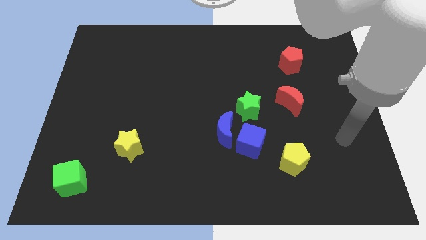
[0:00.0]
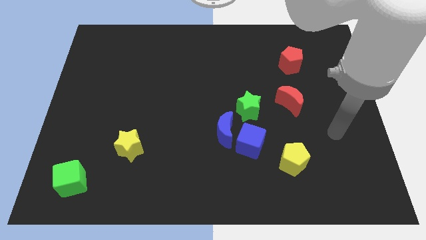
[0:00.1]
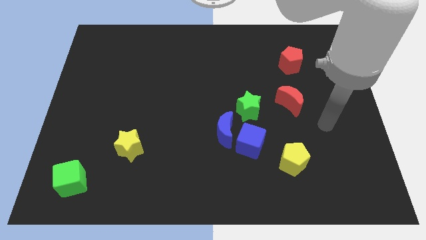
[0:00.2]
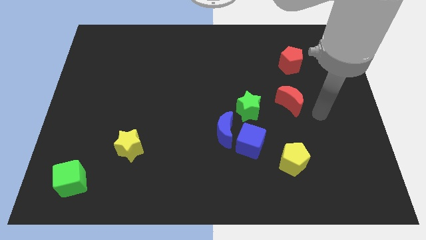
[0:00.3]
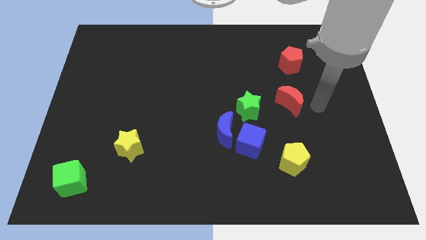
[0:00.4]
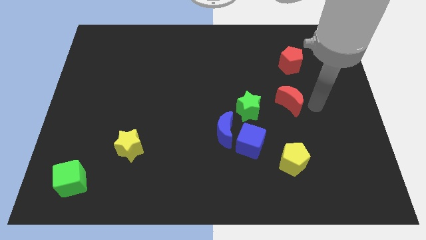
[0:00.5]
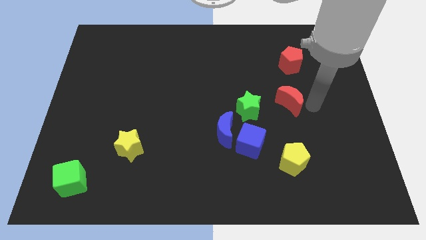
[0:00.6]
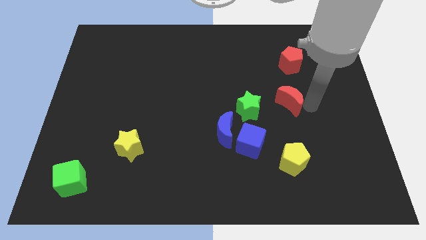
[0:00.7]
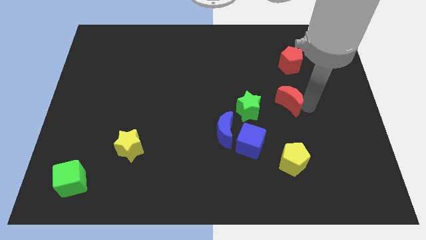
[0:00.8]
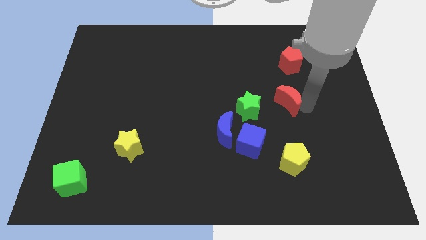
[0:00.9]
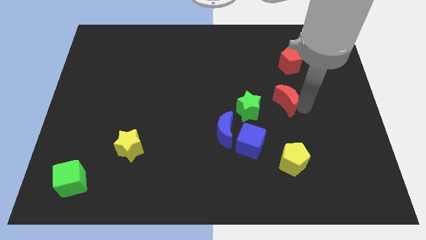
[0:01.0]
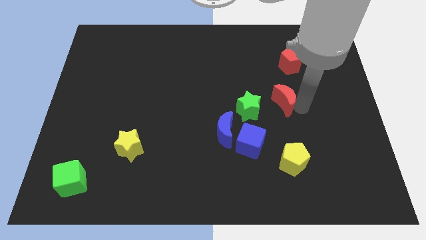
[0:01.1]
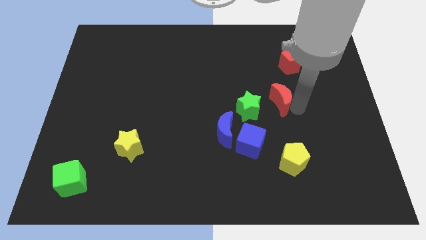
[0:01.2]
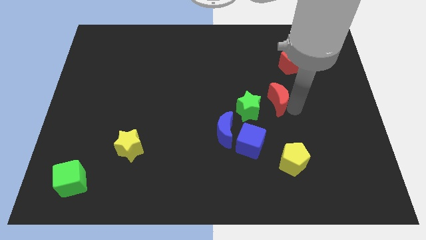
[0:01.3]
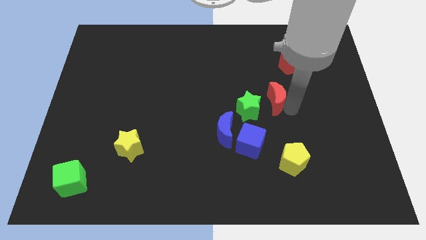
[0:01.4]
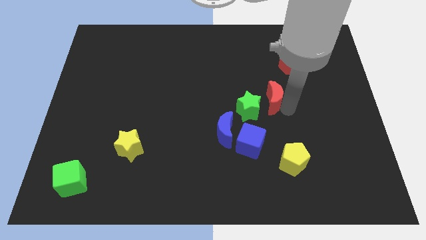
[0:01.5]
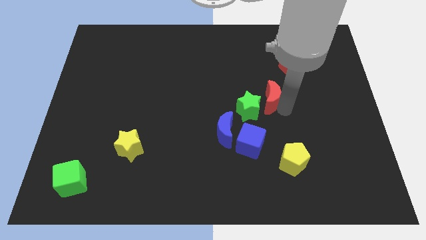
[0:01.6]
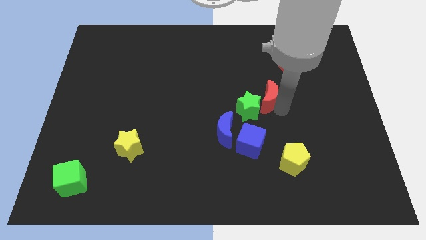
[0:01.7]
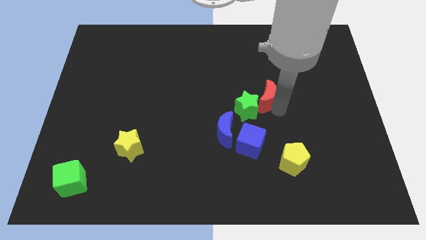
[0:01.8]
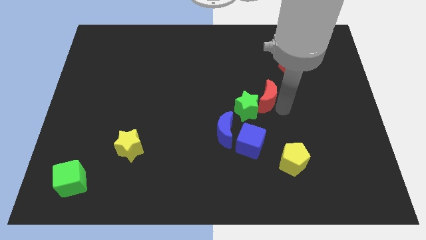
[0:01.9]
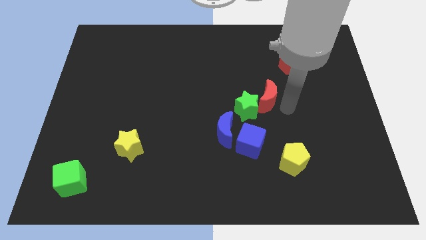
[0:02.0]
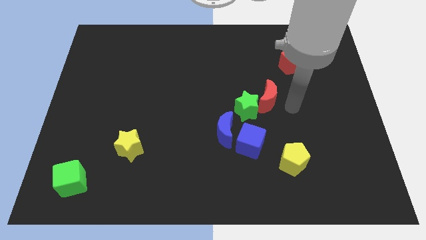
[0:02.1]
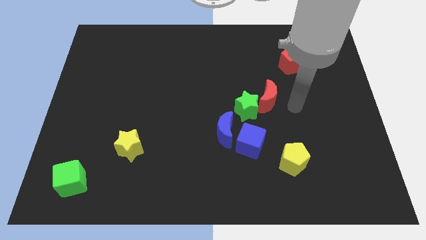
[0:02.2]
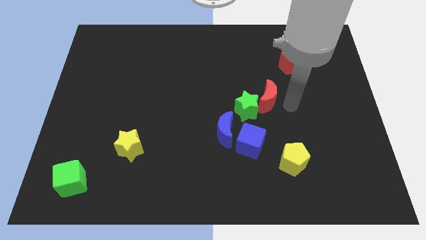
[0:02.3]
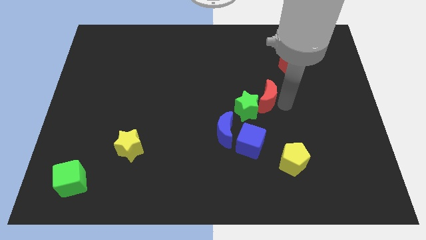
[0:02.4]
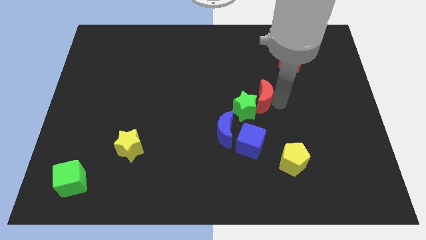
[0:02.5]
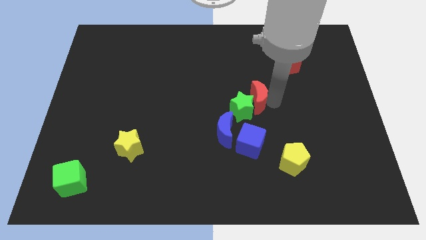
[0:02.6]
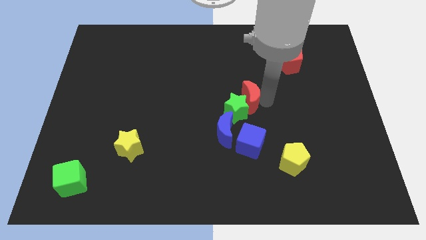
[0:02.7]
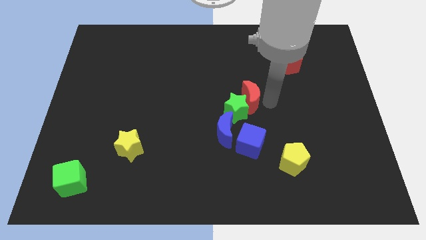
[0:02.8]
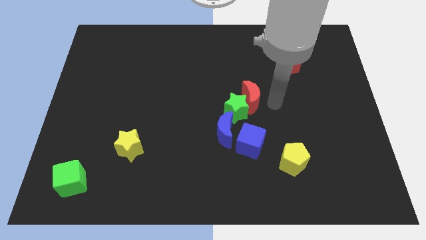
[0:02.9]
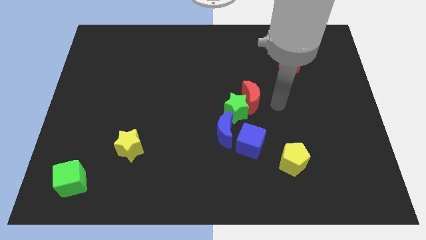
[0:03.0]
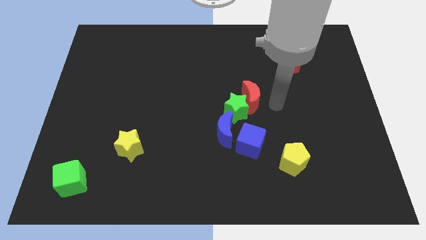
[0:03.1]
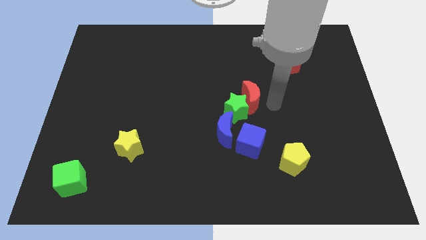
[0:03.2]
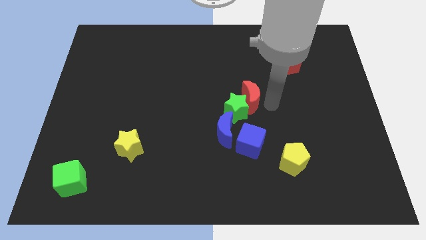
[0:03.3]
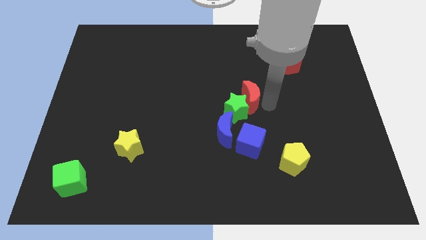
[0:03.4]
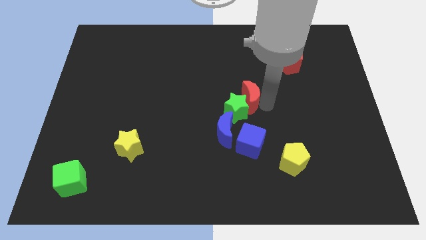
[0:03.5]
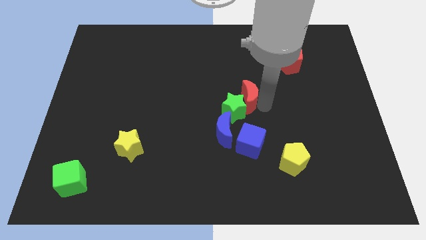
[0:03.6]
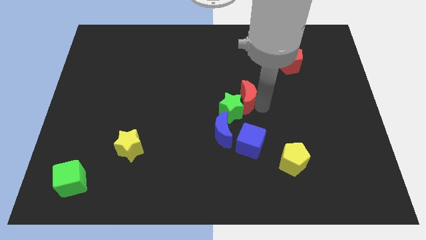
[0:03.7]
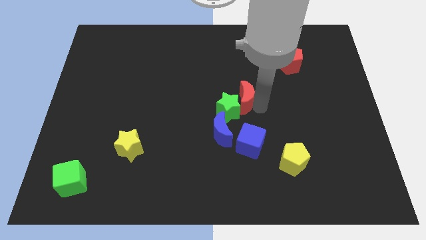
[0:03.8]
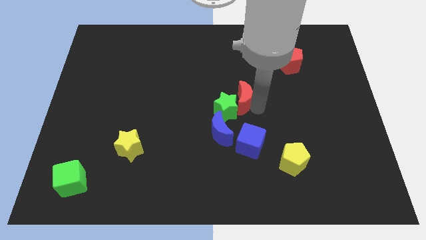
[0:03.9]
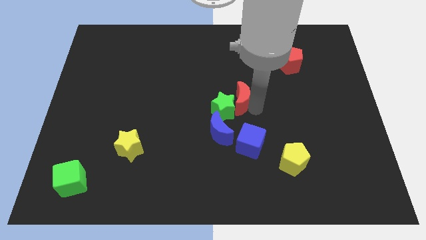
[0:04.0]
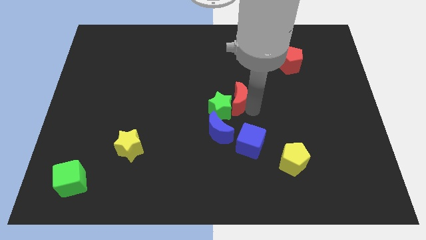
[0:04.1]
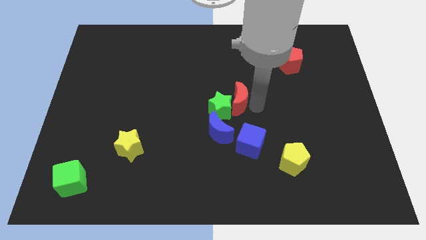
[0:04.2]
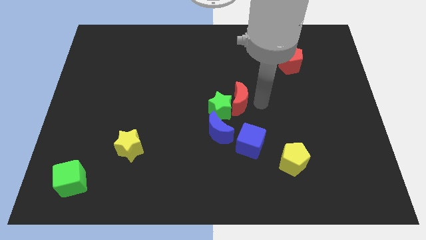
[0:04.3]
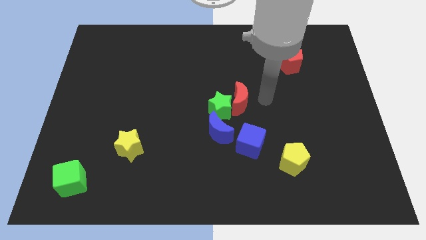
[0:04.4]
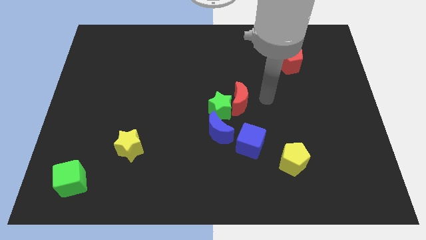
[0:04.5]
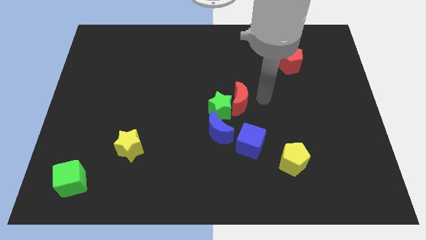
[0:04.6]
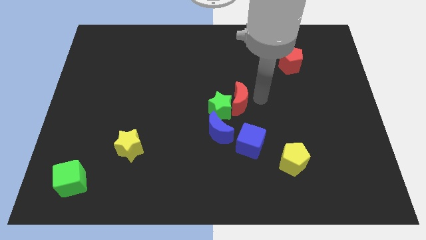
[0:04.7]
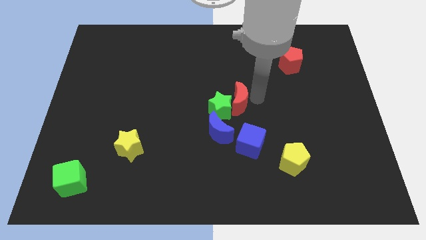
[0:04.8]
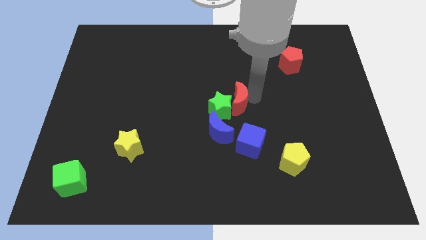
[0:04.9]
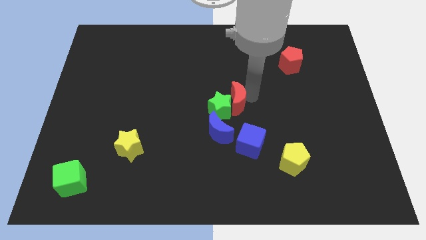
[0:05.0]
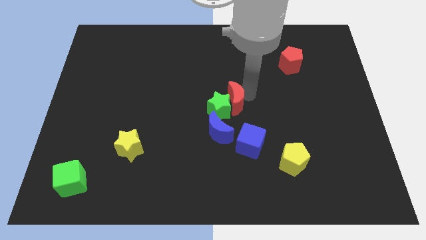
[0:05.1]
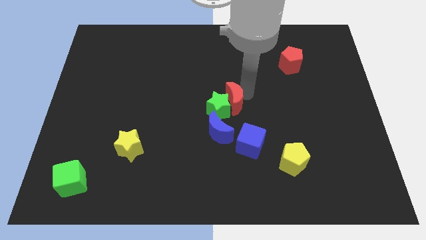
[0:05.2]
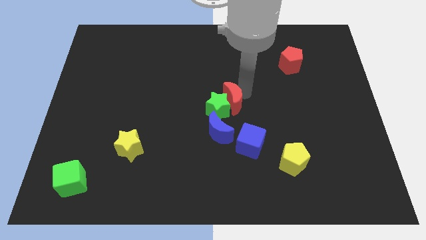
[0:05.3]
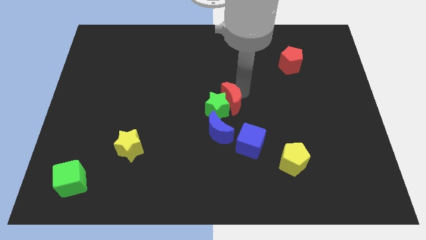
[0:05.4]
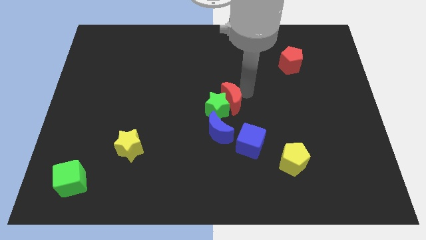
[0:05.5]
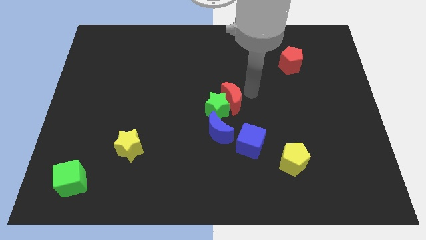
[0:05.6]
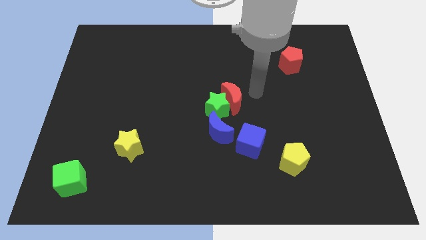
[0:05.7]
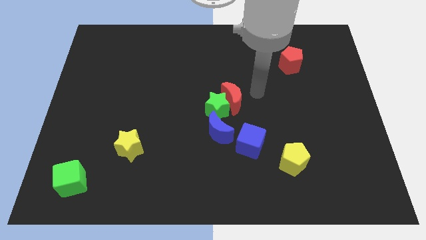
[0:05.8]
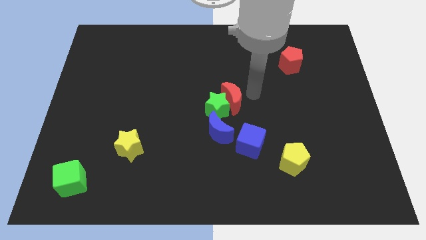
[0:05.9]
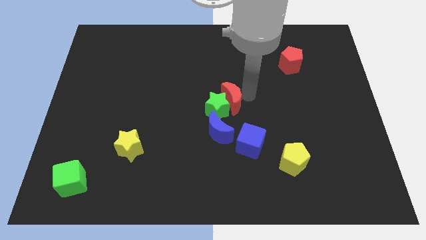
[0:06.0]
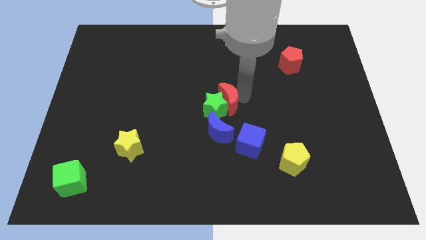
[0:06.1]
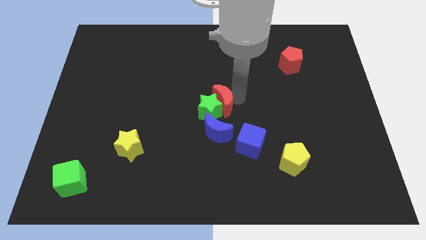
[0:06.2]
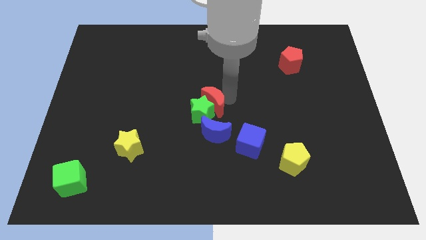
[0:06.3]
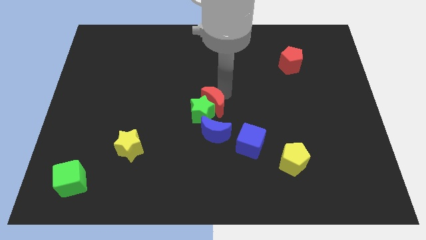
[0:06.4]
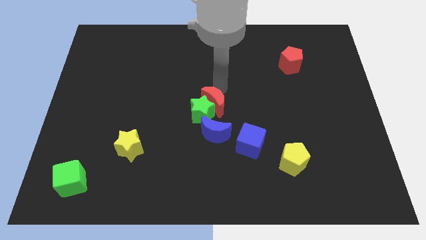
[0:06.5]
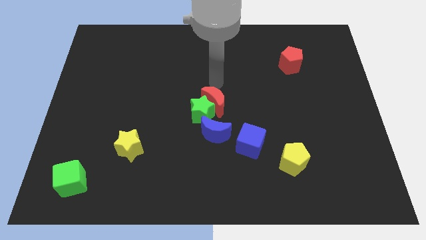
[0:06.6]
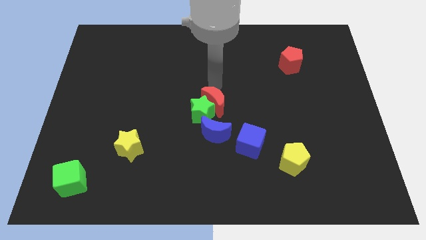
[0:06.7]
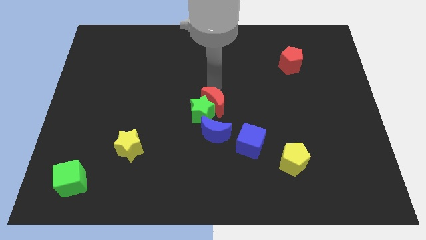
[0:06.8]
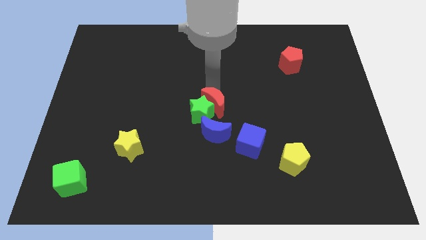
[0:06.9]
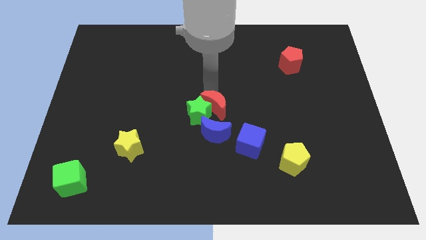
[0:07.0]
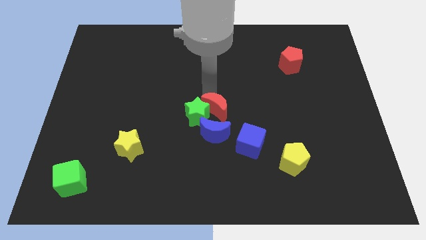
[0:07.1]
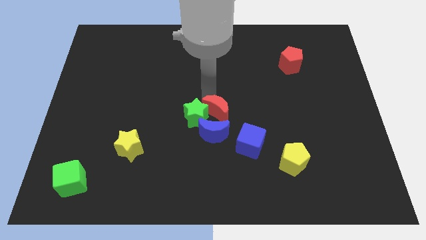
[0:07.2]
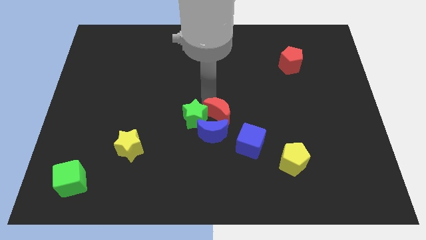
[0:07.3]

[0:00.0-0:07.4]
push the red moon next to the blue moon
